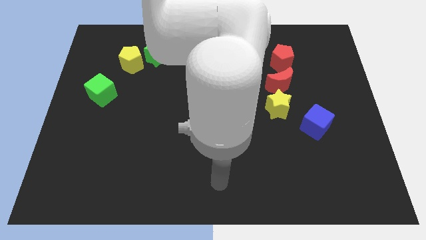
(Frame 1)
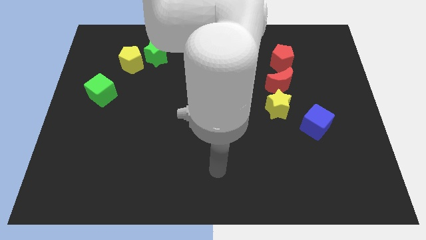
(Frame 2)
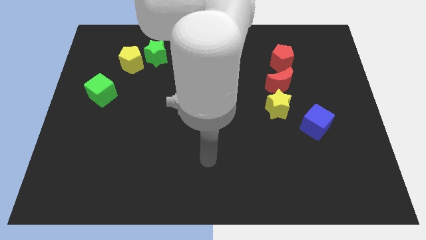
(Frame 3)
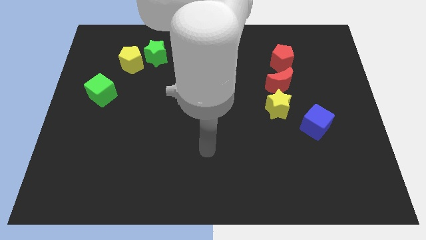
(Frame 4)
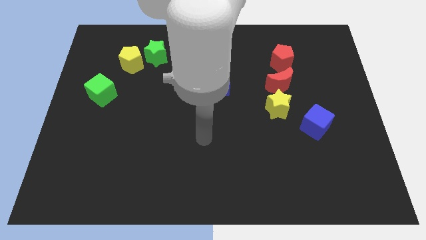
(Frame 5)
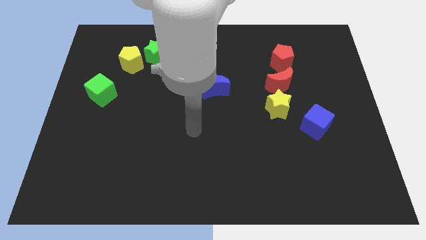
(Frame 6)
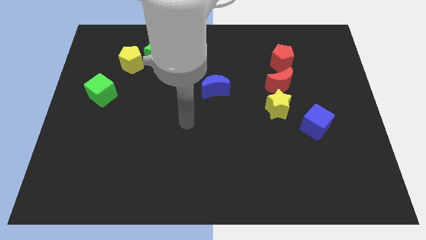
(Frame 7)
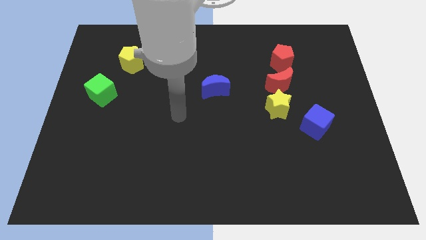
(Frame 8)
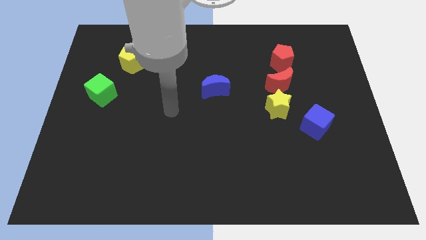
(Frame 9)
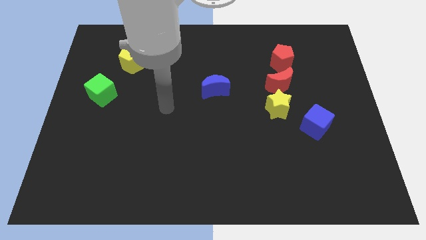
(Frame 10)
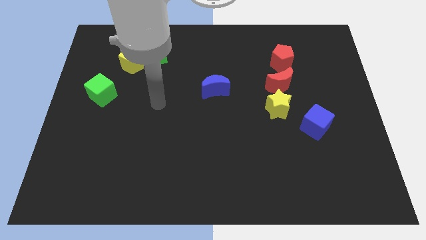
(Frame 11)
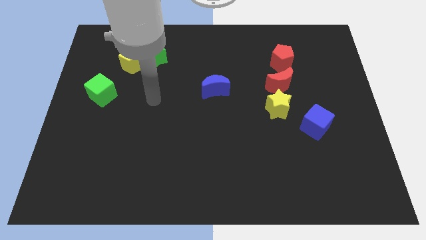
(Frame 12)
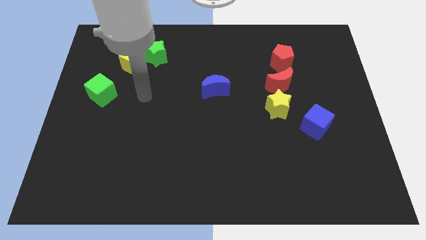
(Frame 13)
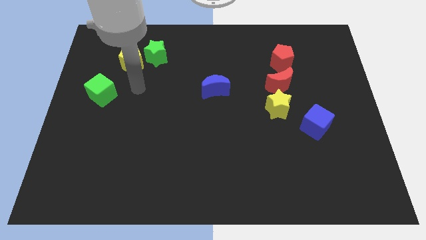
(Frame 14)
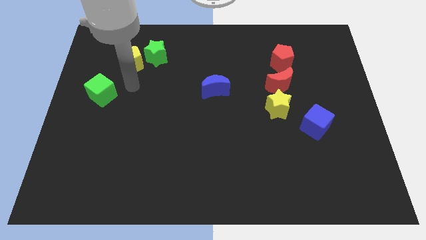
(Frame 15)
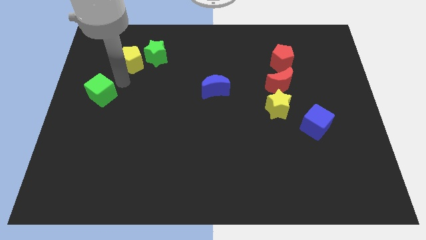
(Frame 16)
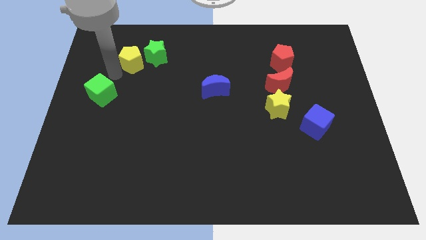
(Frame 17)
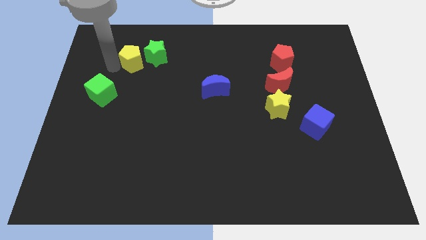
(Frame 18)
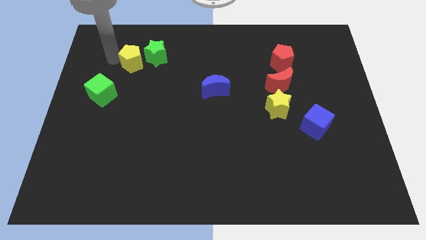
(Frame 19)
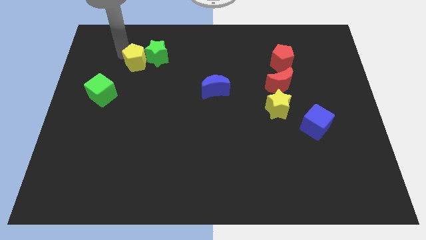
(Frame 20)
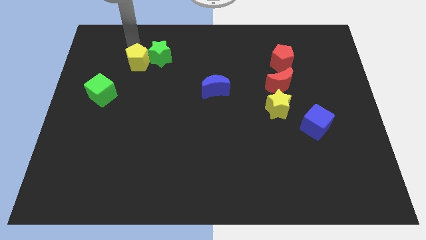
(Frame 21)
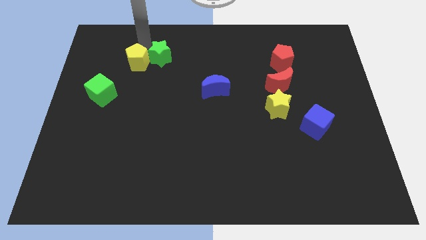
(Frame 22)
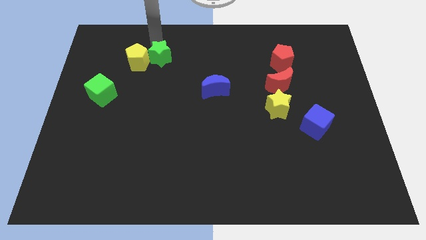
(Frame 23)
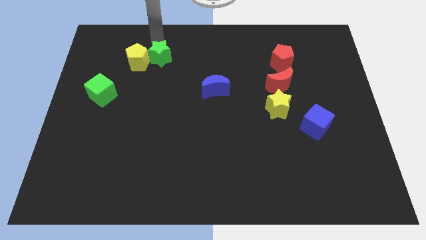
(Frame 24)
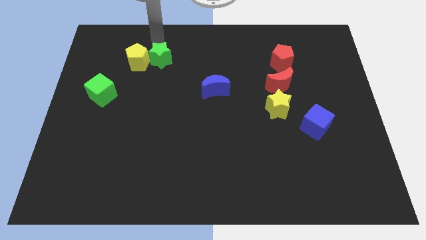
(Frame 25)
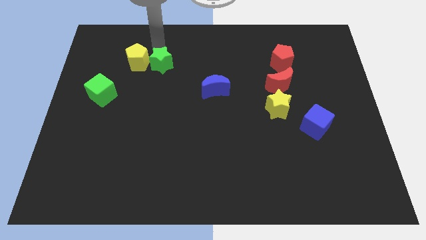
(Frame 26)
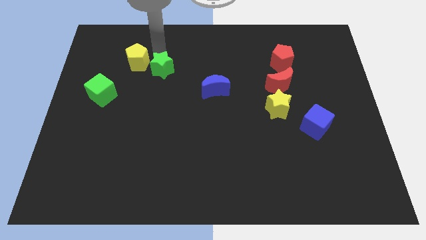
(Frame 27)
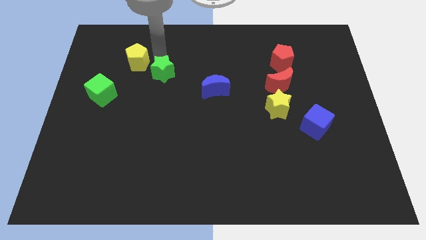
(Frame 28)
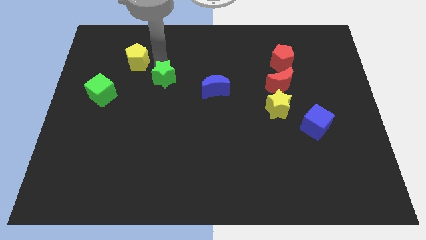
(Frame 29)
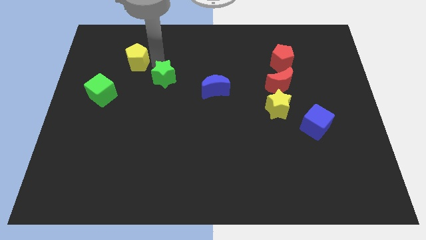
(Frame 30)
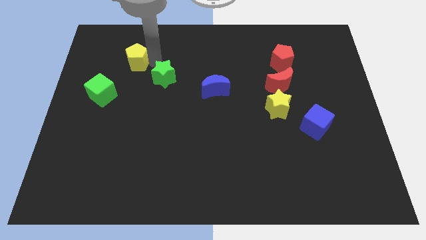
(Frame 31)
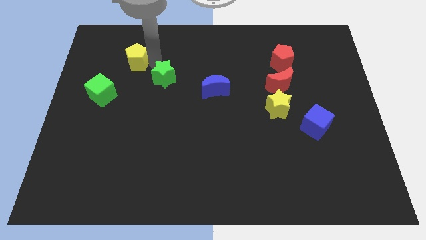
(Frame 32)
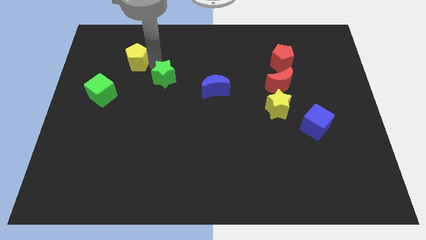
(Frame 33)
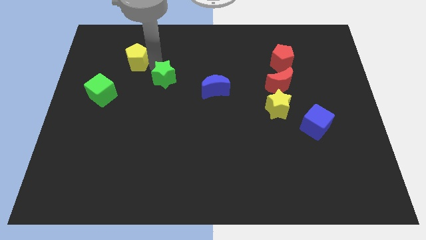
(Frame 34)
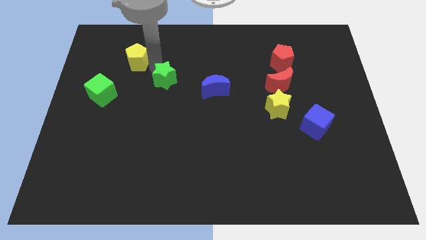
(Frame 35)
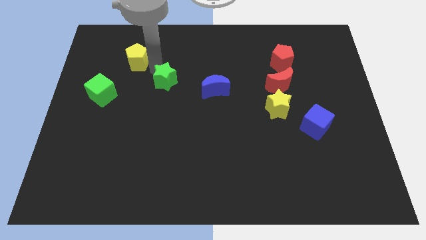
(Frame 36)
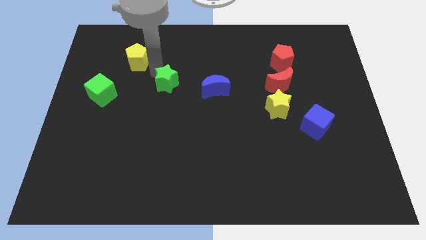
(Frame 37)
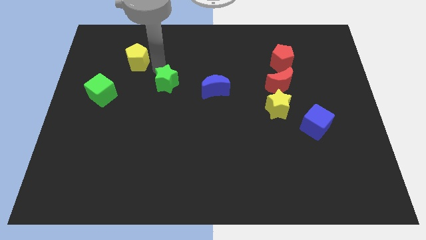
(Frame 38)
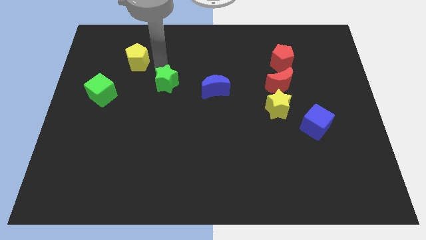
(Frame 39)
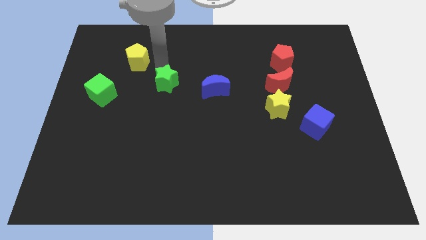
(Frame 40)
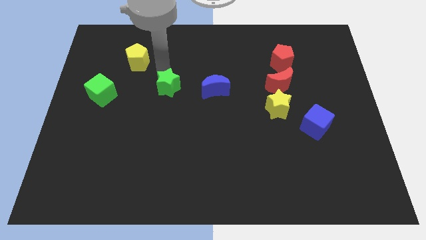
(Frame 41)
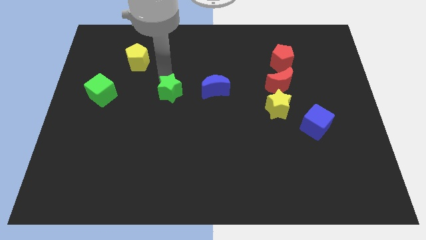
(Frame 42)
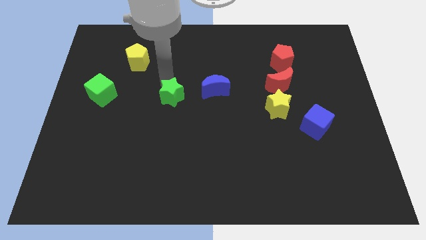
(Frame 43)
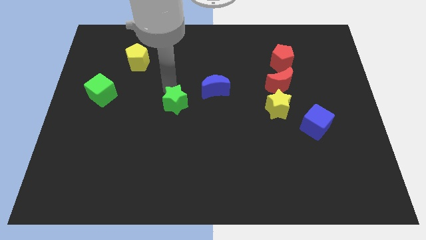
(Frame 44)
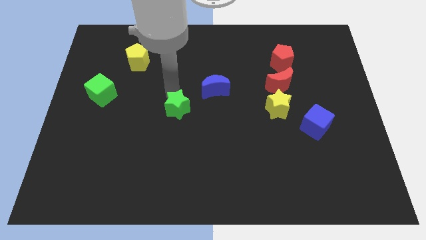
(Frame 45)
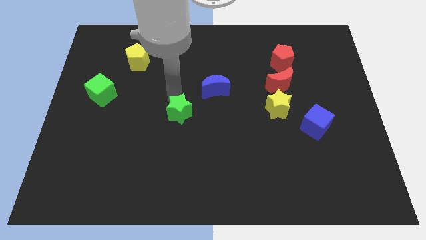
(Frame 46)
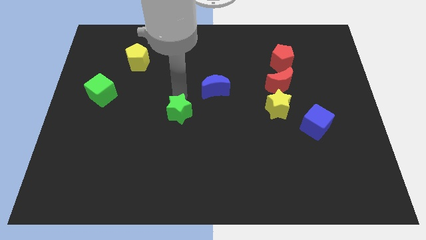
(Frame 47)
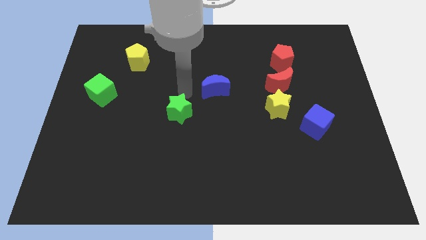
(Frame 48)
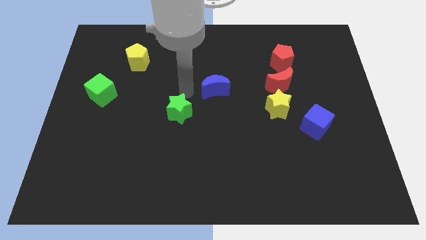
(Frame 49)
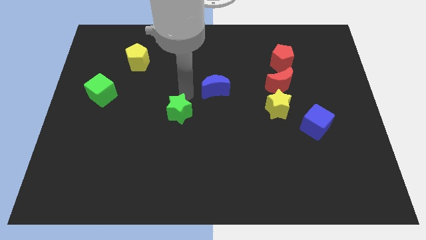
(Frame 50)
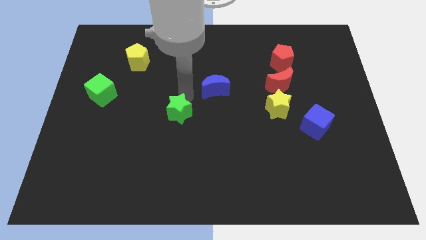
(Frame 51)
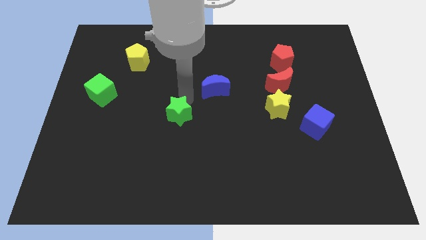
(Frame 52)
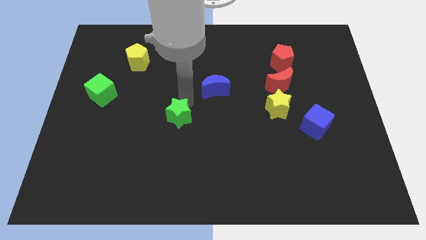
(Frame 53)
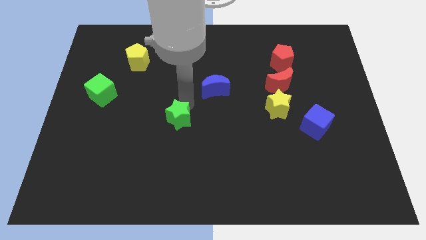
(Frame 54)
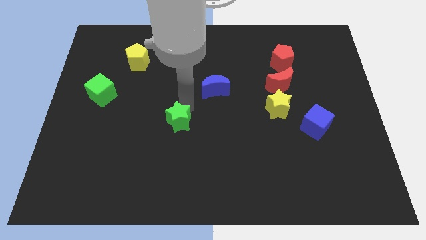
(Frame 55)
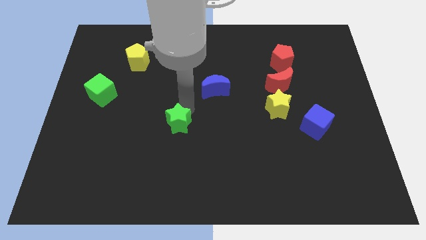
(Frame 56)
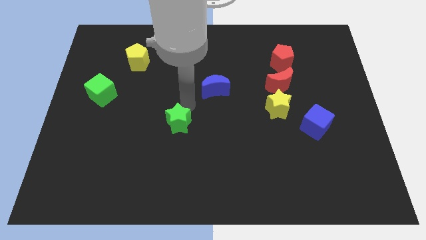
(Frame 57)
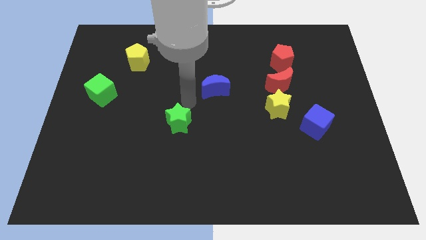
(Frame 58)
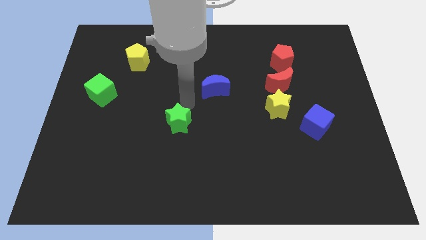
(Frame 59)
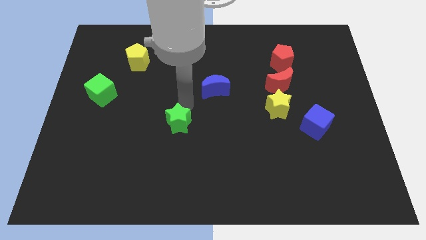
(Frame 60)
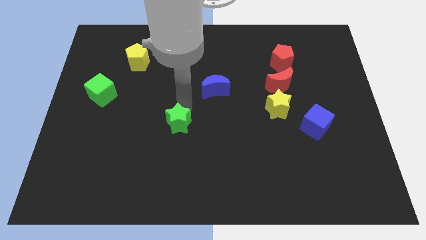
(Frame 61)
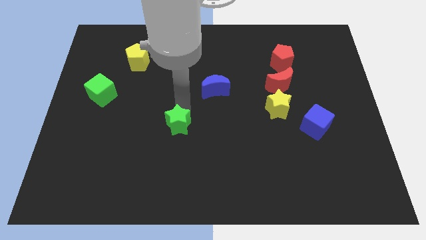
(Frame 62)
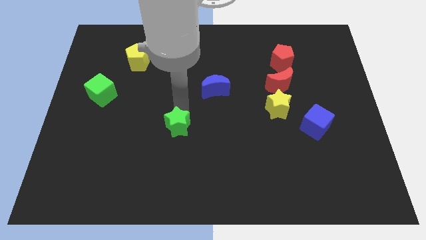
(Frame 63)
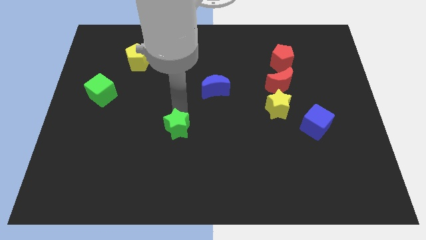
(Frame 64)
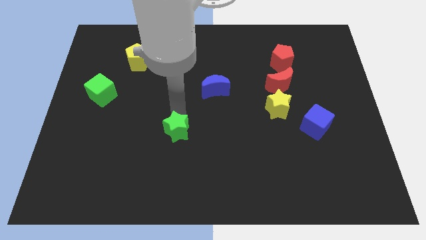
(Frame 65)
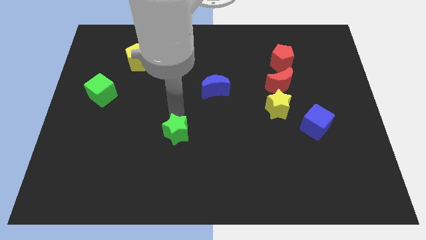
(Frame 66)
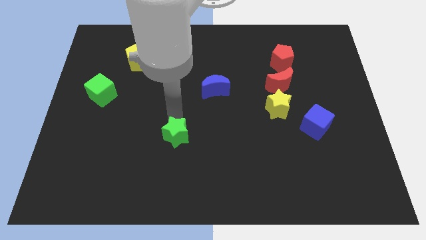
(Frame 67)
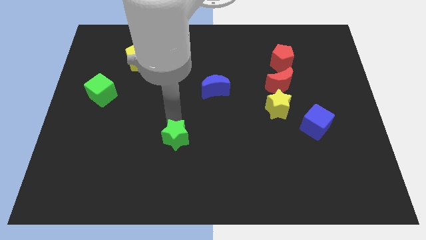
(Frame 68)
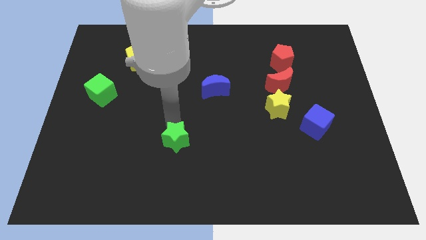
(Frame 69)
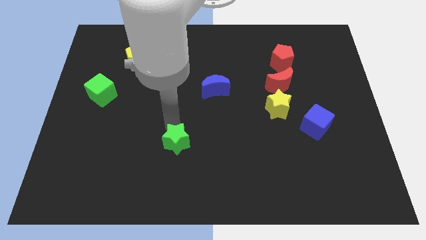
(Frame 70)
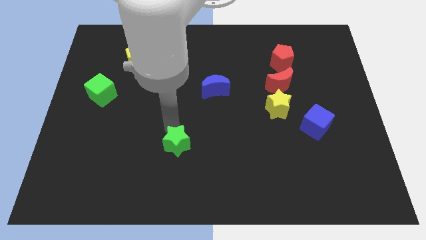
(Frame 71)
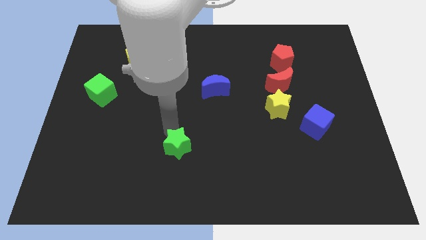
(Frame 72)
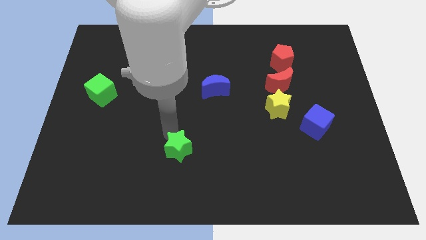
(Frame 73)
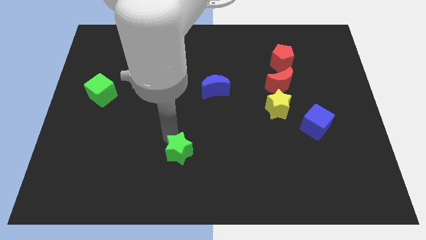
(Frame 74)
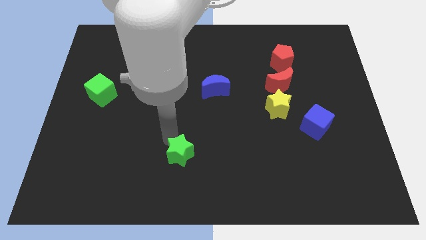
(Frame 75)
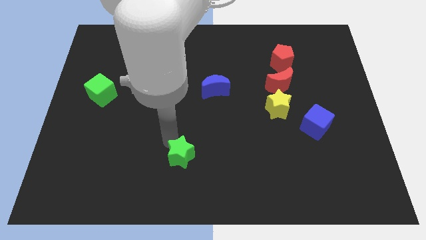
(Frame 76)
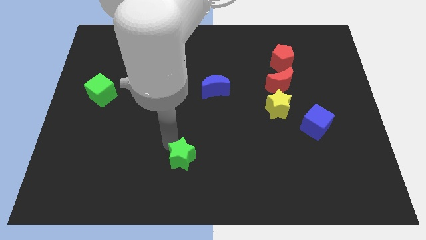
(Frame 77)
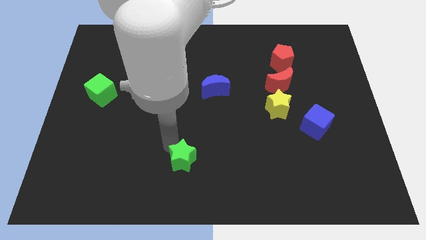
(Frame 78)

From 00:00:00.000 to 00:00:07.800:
put the green star to the bottom side
